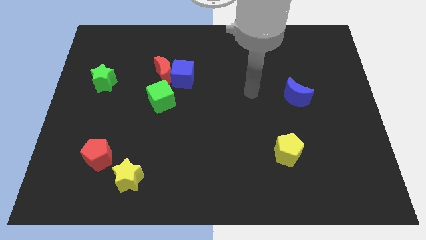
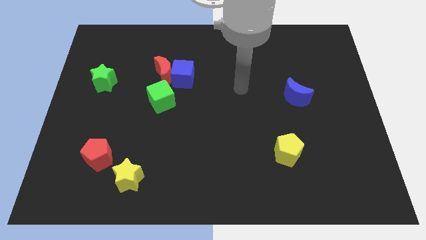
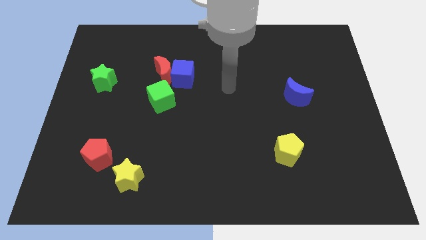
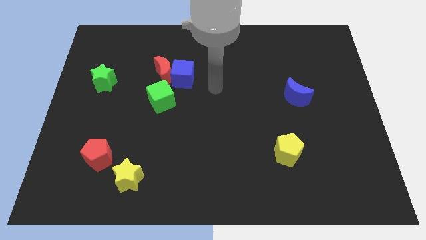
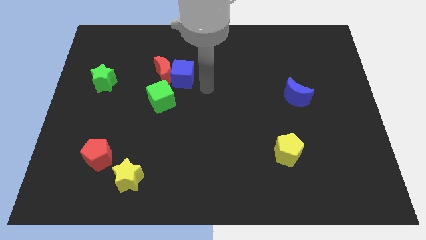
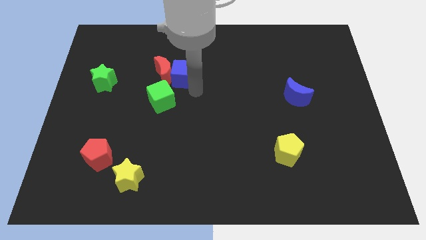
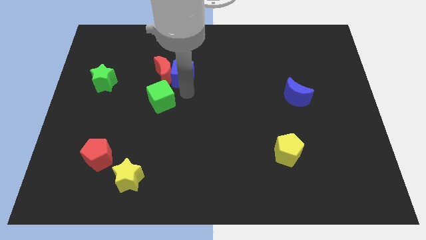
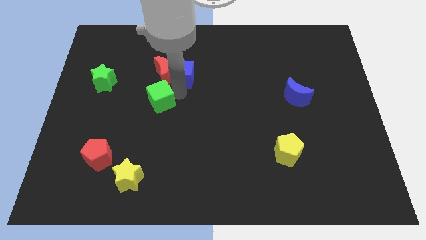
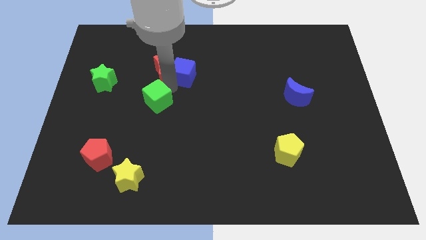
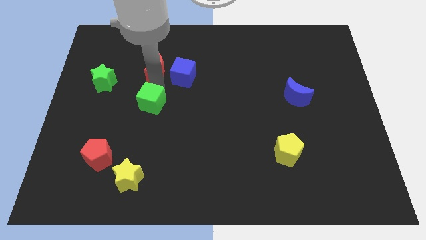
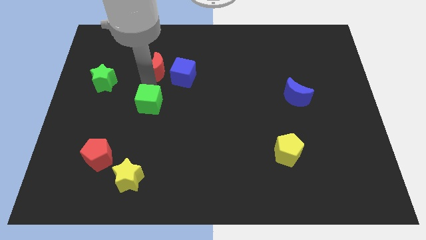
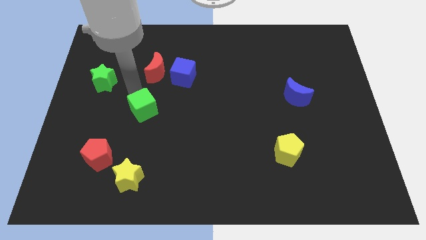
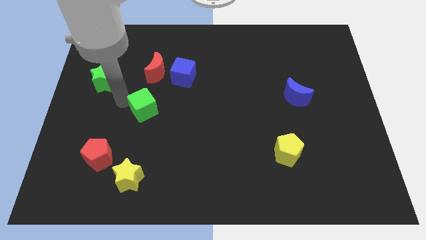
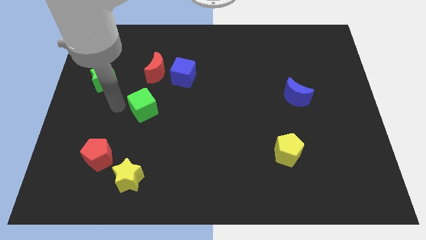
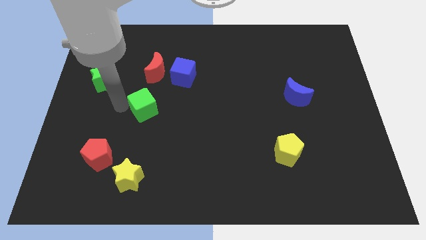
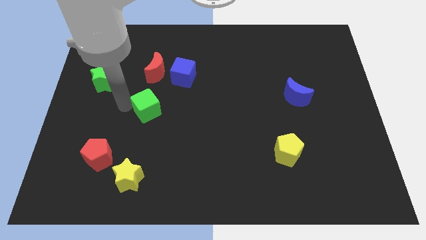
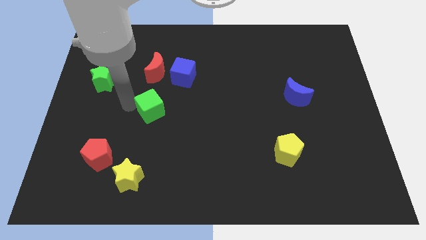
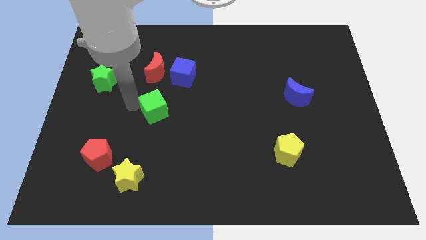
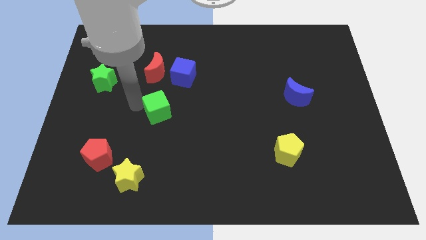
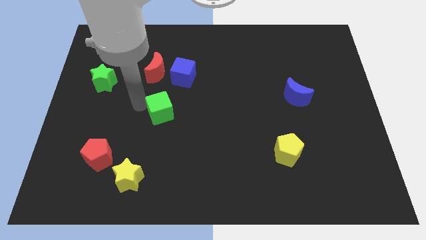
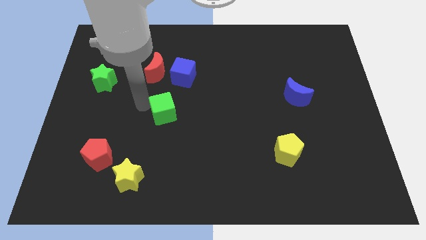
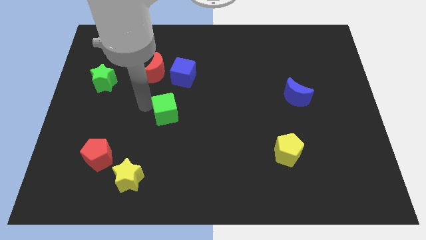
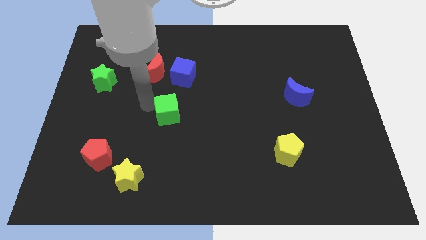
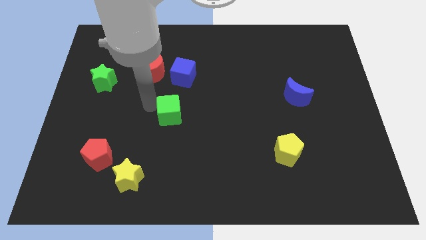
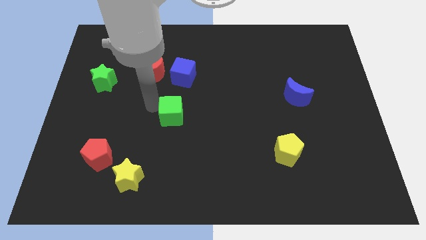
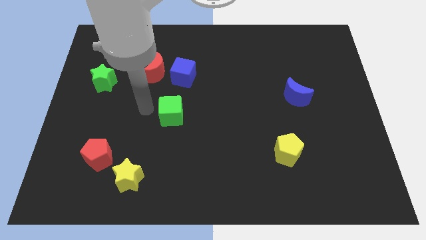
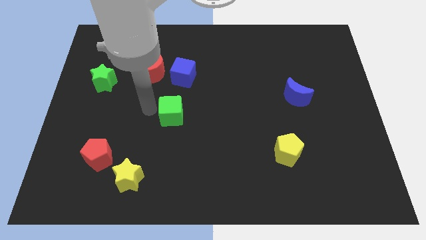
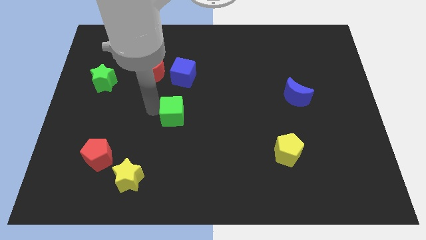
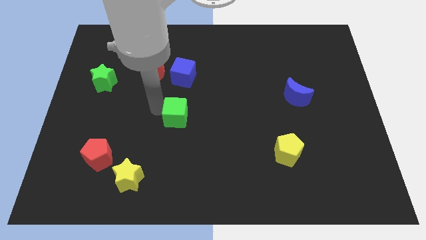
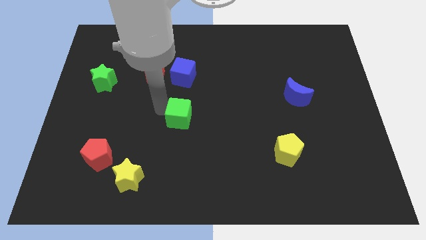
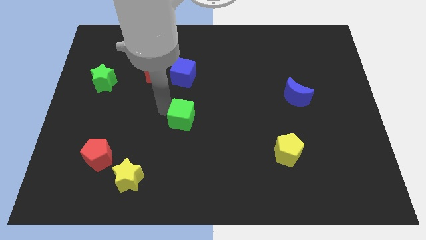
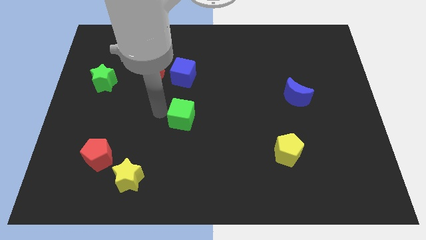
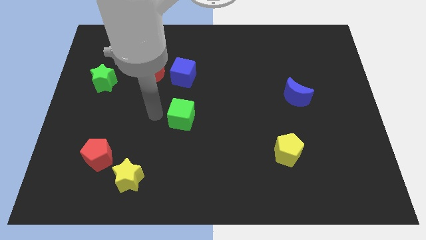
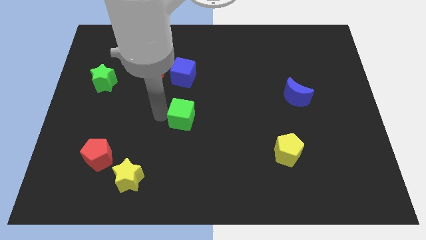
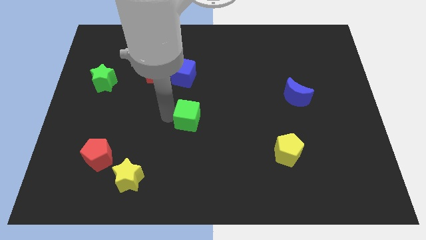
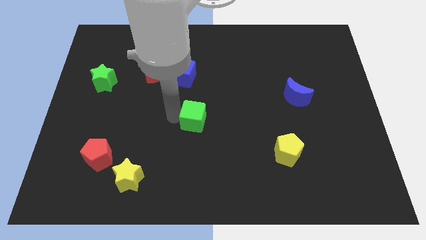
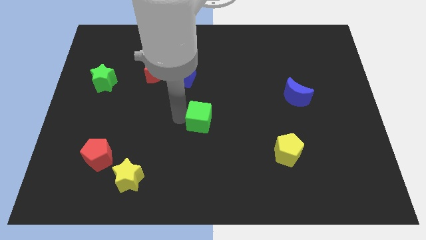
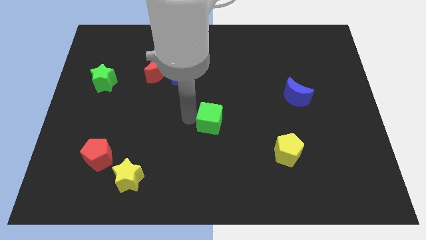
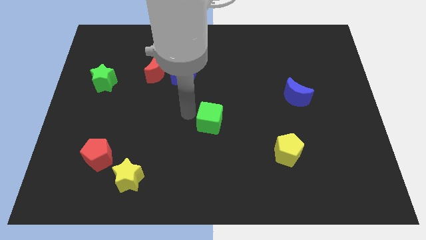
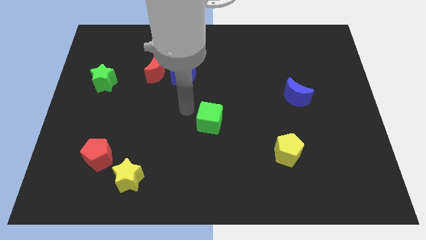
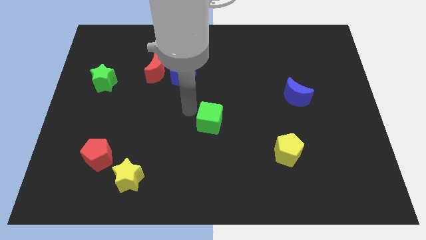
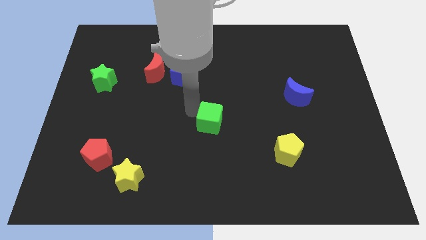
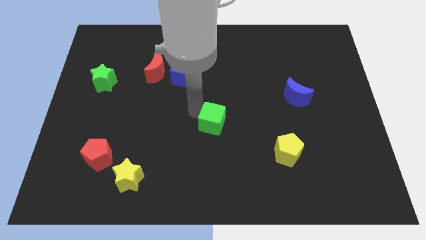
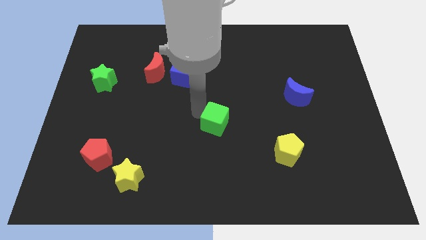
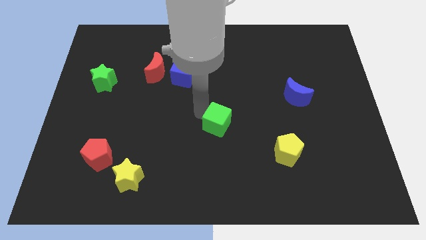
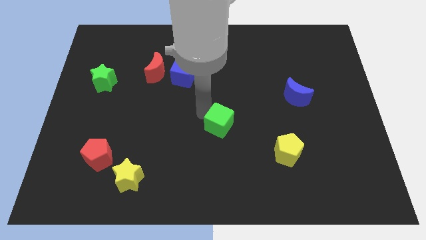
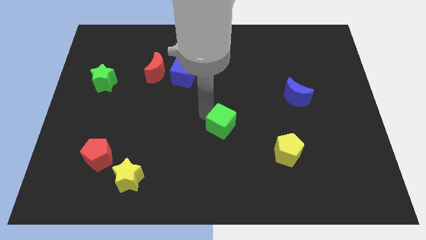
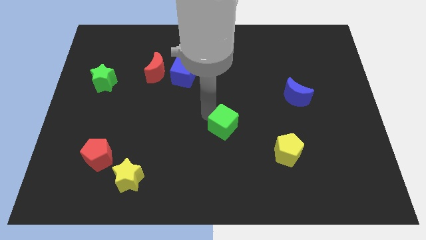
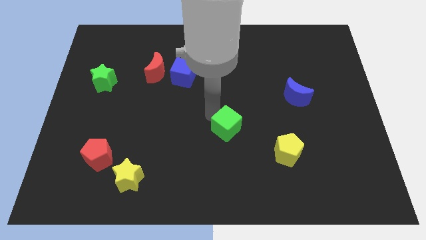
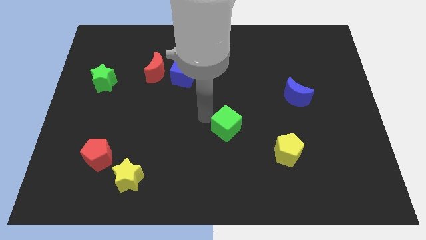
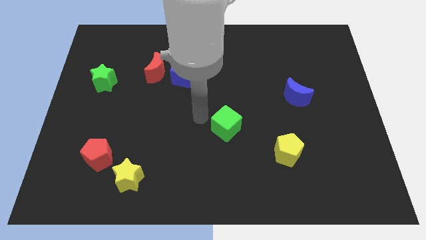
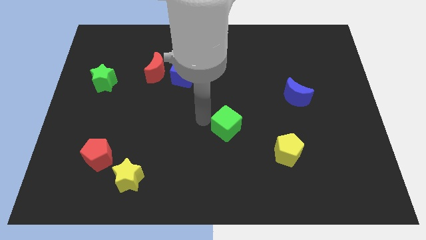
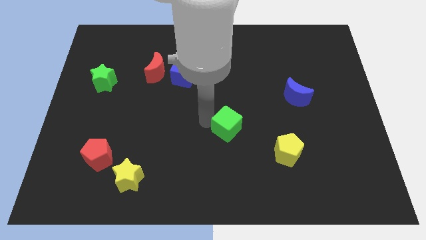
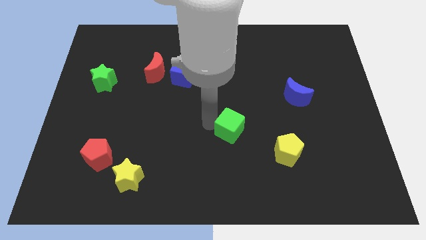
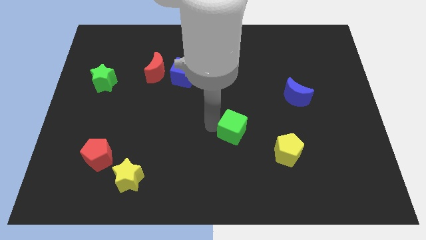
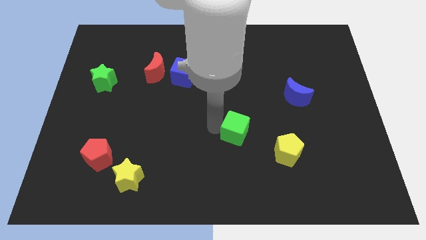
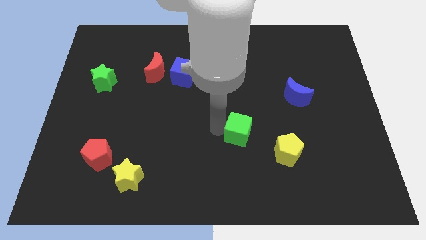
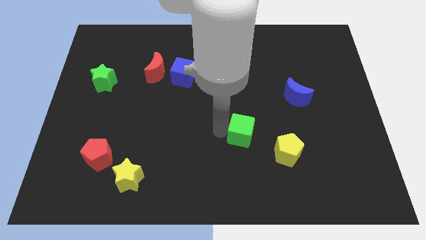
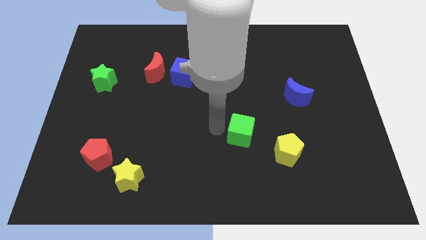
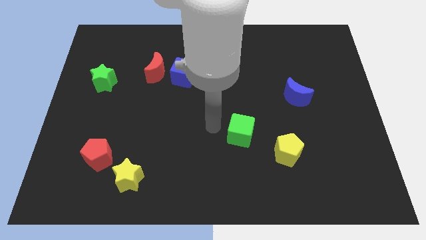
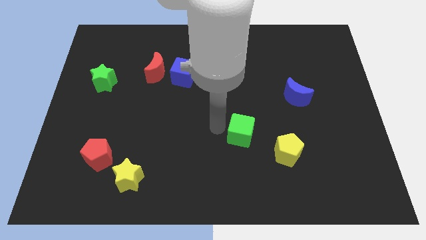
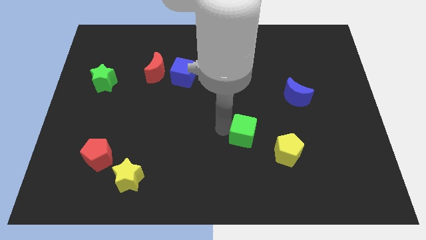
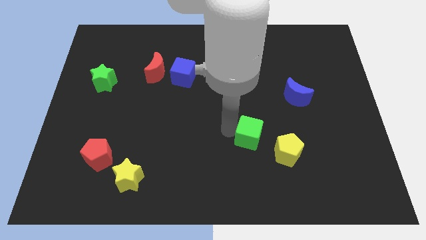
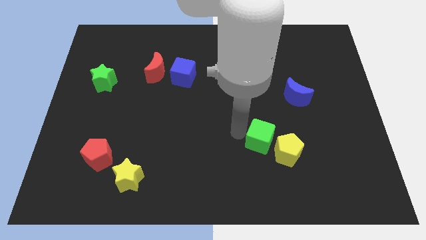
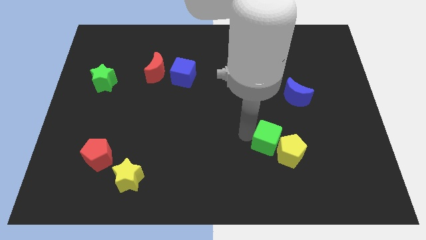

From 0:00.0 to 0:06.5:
put the green cube to the yellow pentagon
